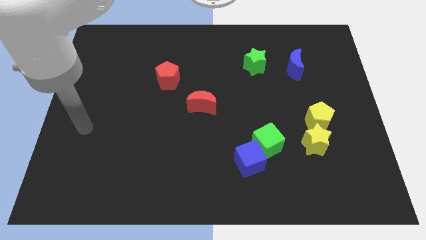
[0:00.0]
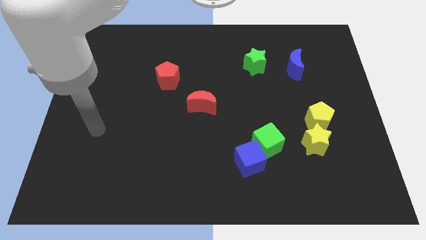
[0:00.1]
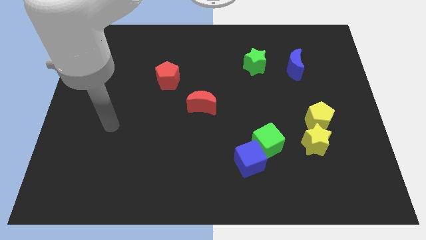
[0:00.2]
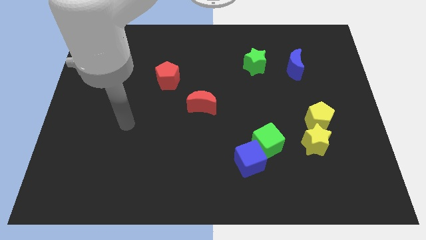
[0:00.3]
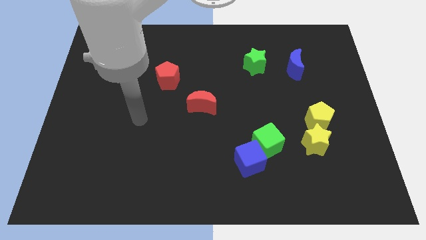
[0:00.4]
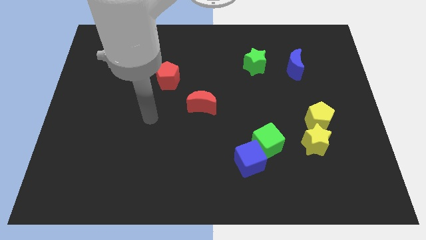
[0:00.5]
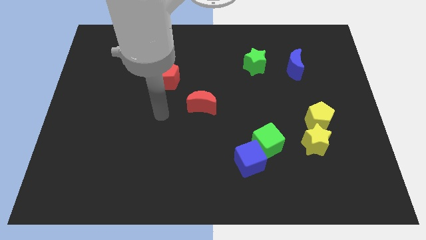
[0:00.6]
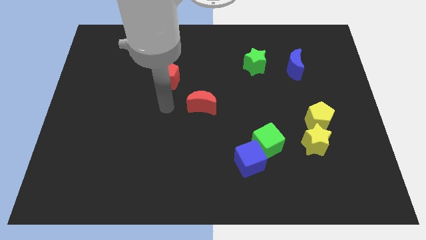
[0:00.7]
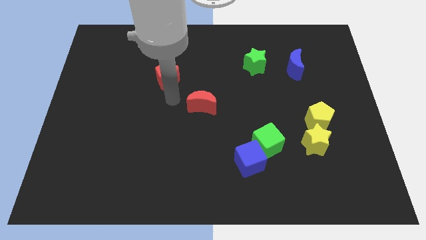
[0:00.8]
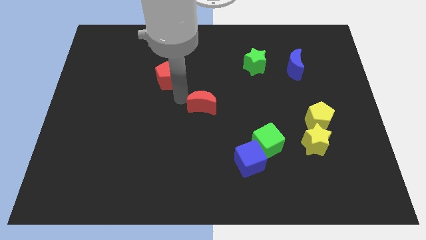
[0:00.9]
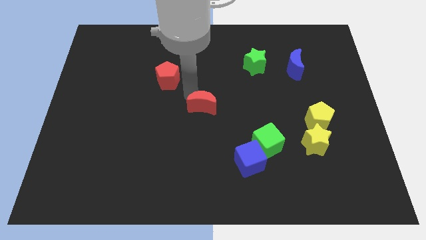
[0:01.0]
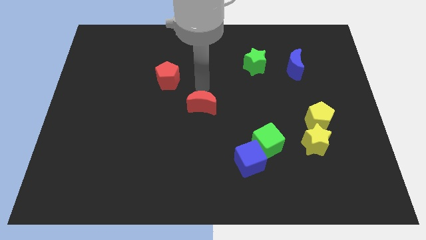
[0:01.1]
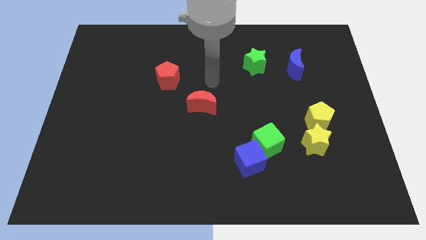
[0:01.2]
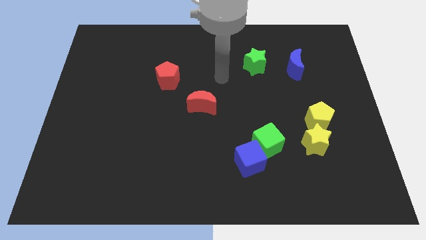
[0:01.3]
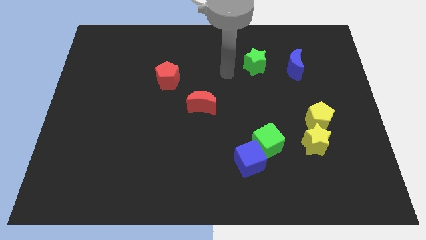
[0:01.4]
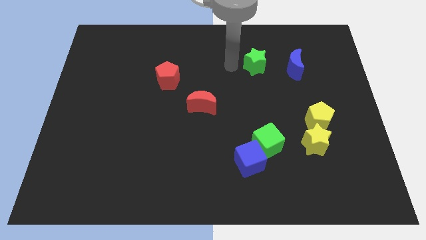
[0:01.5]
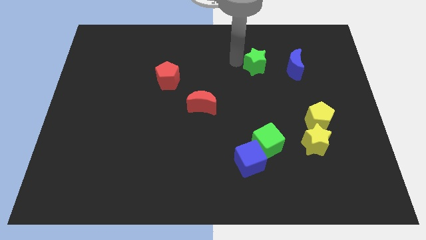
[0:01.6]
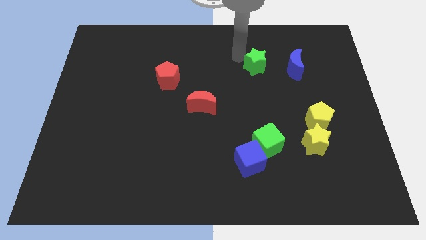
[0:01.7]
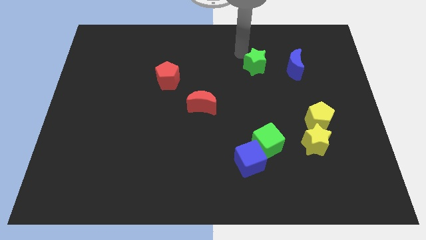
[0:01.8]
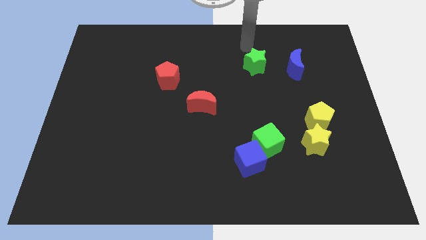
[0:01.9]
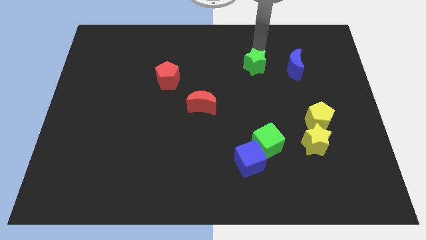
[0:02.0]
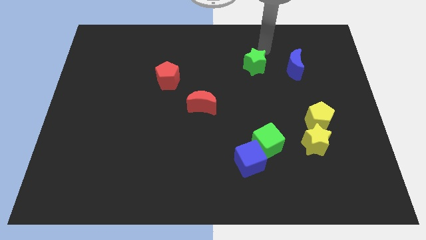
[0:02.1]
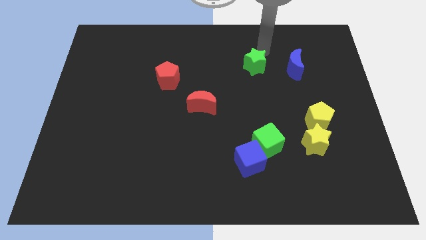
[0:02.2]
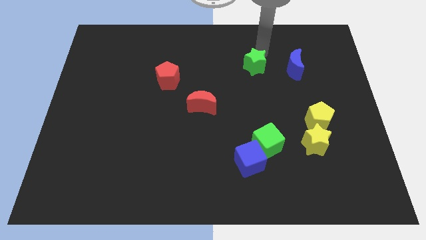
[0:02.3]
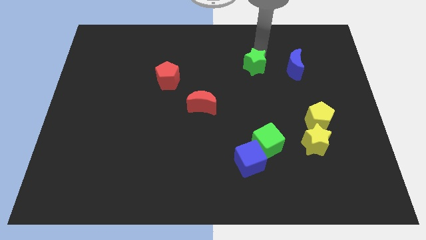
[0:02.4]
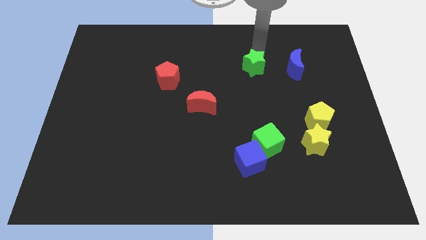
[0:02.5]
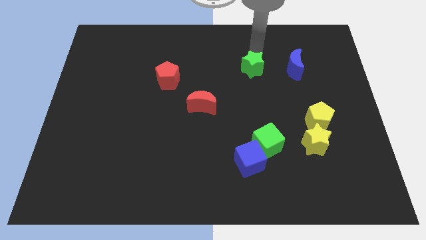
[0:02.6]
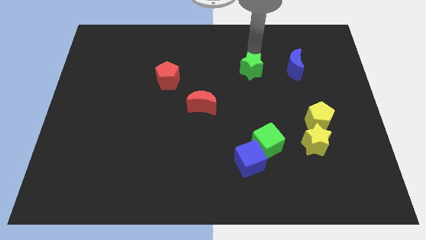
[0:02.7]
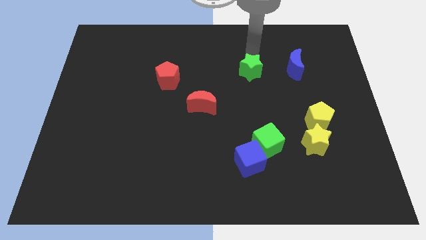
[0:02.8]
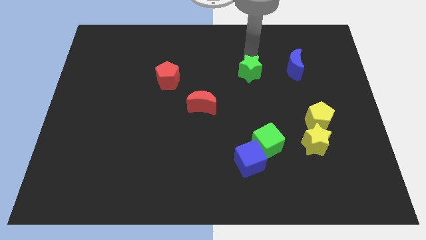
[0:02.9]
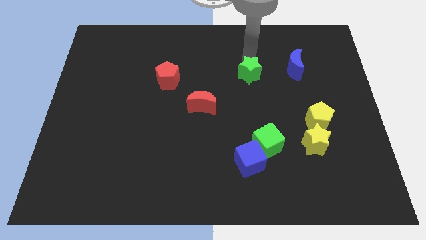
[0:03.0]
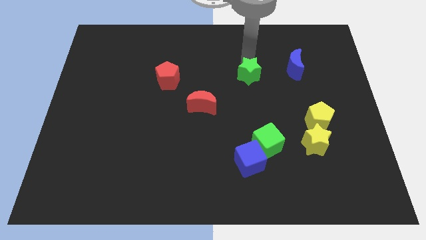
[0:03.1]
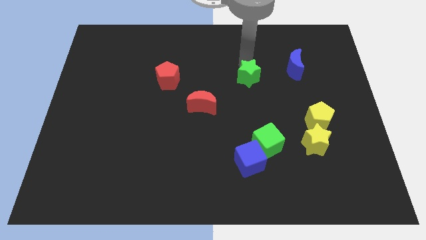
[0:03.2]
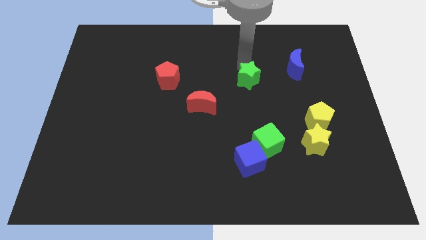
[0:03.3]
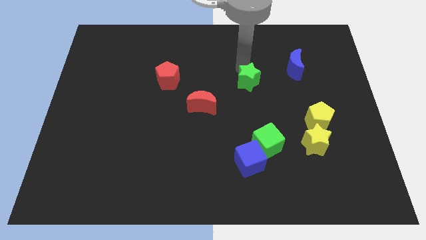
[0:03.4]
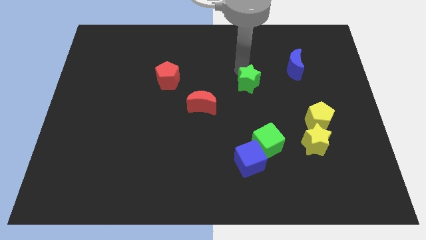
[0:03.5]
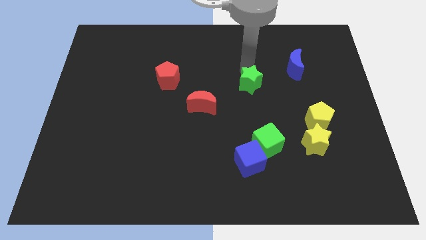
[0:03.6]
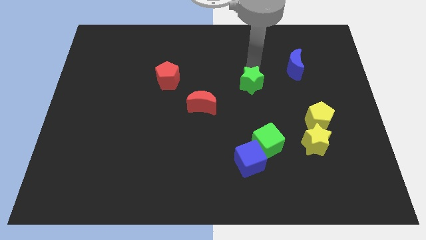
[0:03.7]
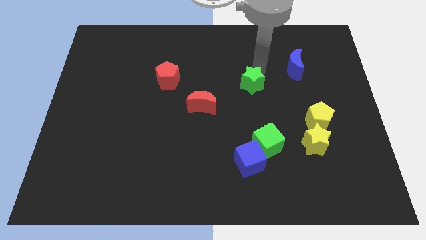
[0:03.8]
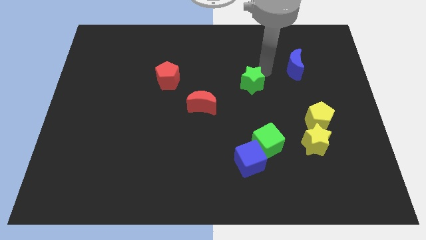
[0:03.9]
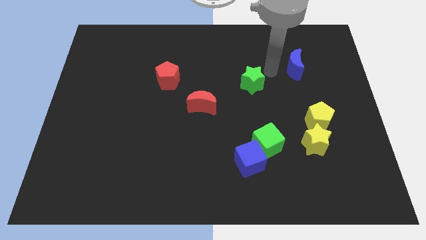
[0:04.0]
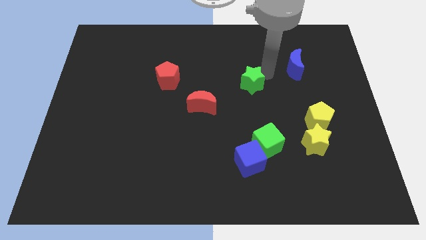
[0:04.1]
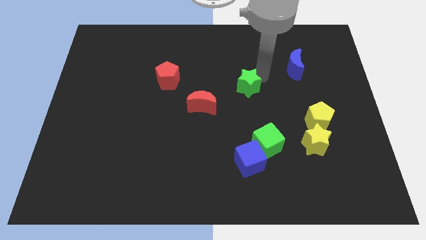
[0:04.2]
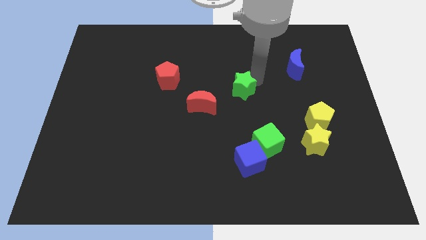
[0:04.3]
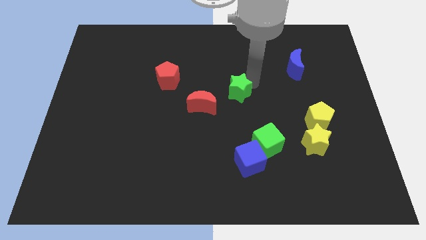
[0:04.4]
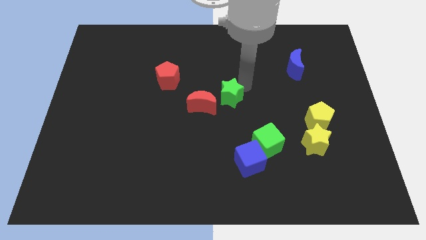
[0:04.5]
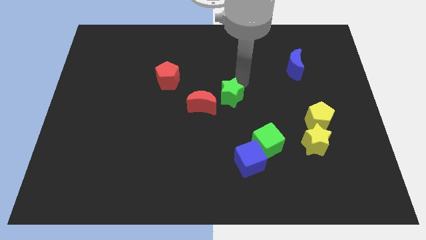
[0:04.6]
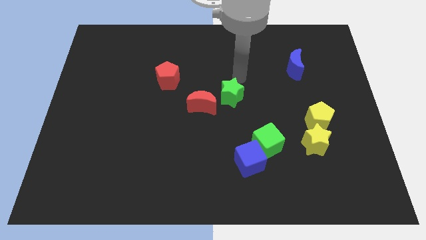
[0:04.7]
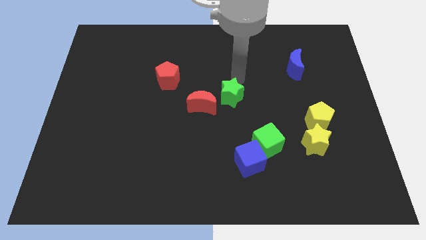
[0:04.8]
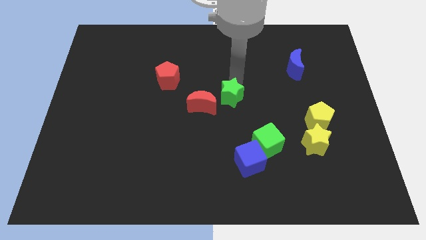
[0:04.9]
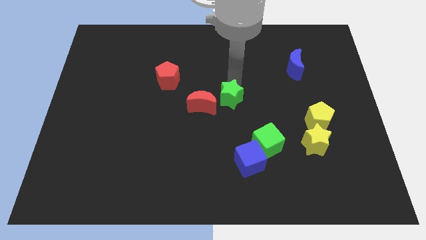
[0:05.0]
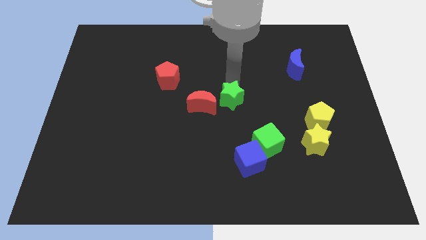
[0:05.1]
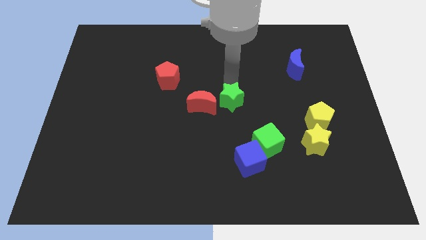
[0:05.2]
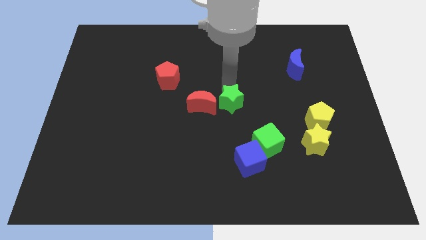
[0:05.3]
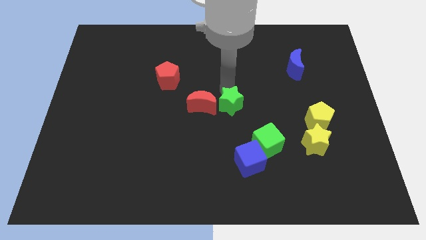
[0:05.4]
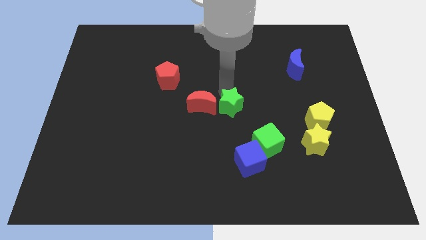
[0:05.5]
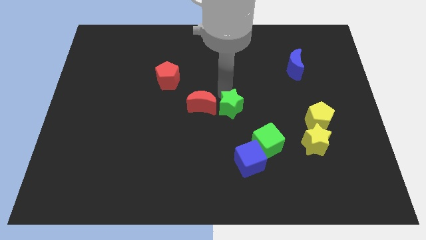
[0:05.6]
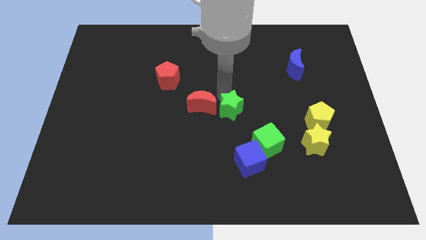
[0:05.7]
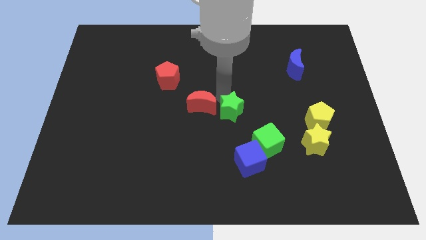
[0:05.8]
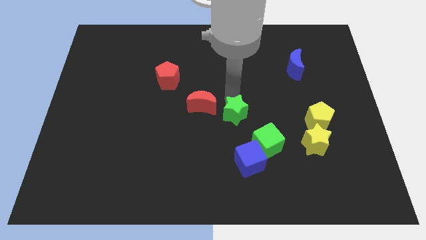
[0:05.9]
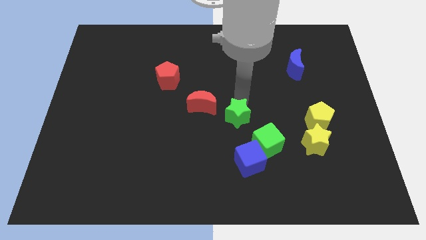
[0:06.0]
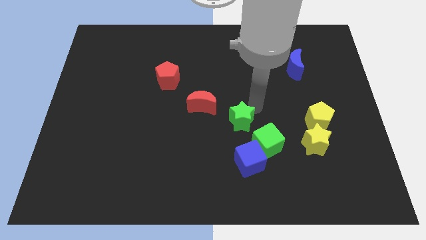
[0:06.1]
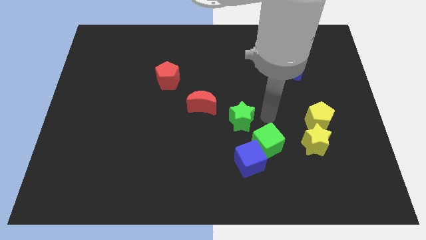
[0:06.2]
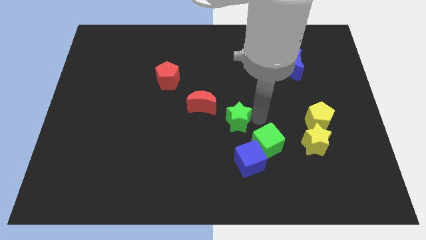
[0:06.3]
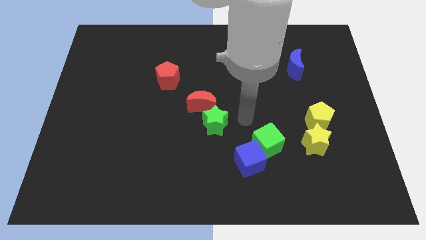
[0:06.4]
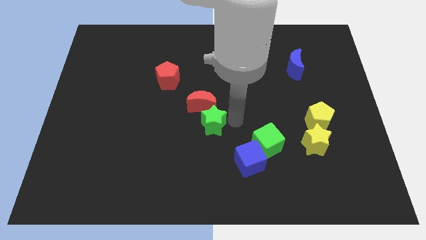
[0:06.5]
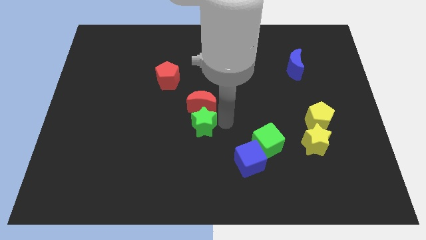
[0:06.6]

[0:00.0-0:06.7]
move the green star to the bottom left of the red moon
